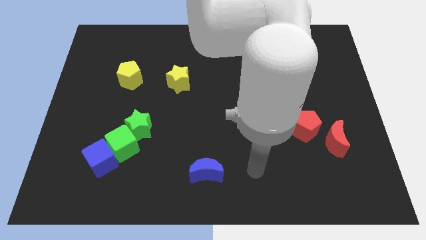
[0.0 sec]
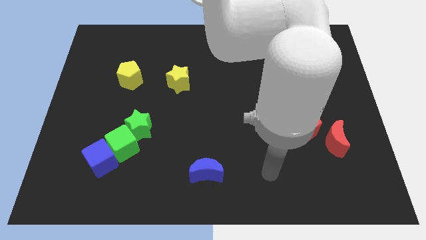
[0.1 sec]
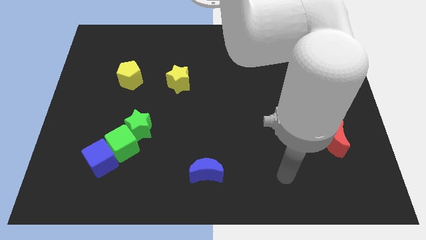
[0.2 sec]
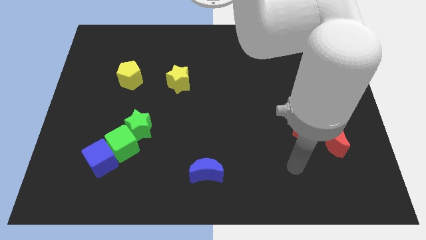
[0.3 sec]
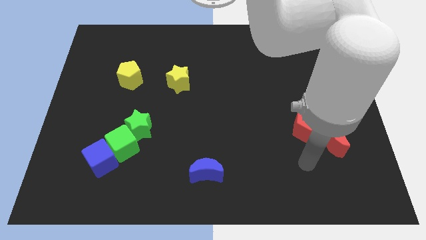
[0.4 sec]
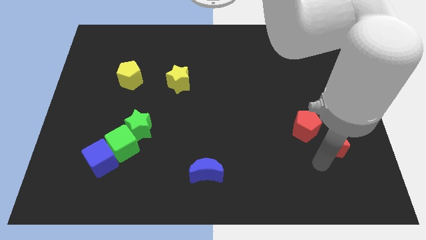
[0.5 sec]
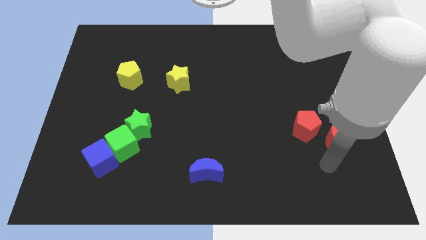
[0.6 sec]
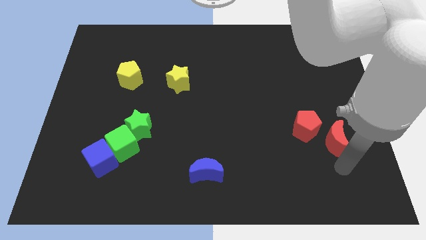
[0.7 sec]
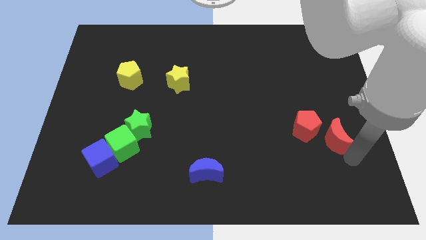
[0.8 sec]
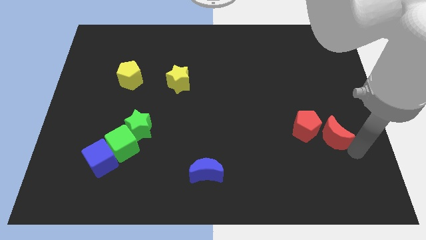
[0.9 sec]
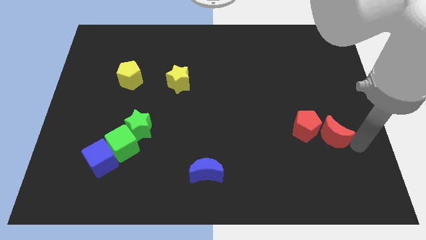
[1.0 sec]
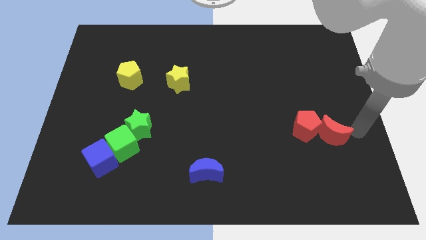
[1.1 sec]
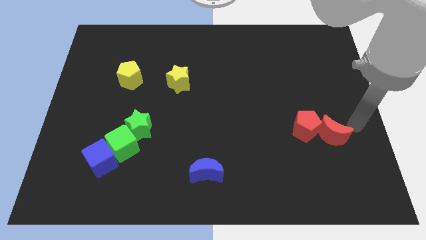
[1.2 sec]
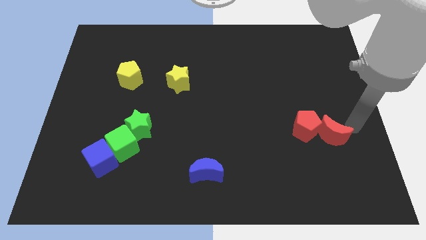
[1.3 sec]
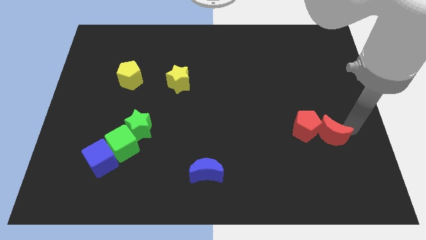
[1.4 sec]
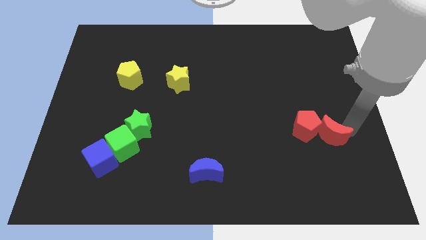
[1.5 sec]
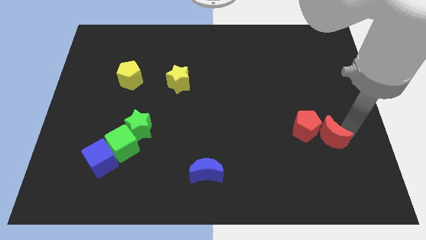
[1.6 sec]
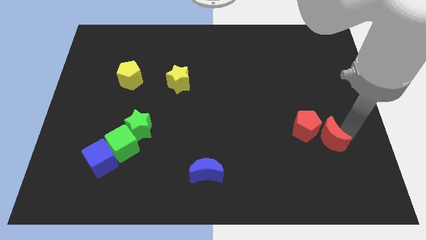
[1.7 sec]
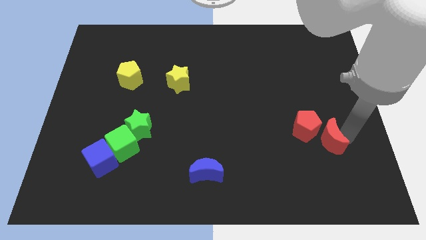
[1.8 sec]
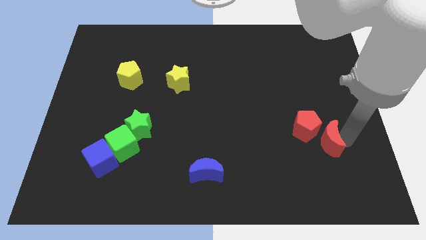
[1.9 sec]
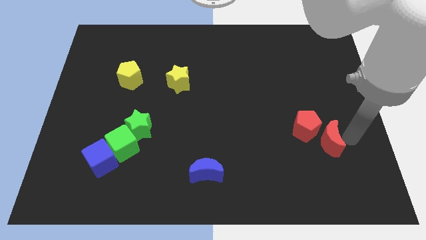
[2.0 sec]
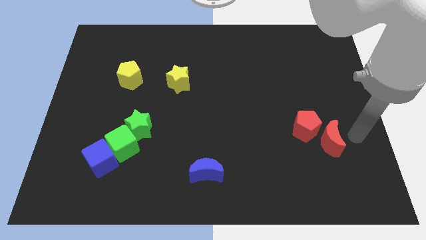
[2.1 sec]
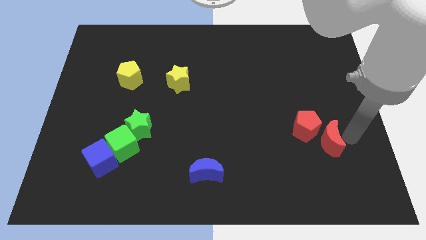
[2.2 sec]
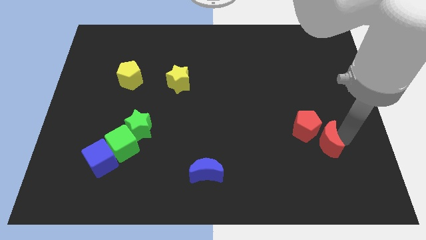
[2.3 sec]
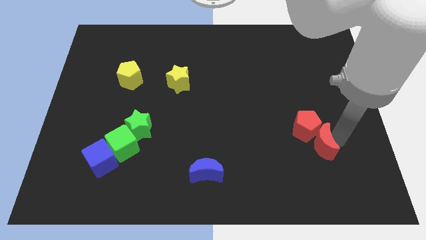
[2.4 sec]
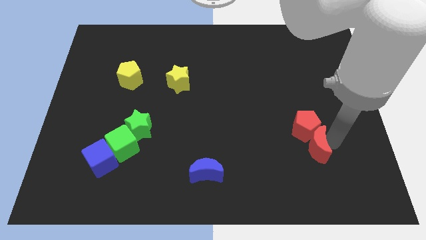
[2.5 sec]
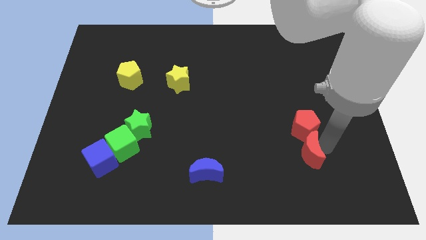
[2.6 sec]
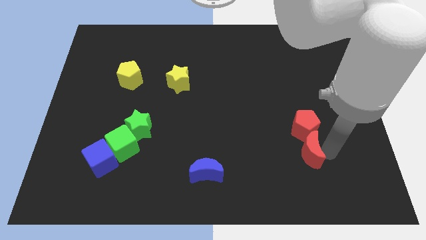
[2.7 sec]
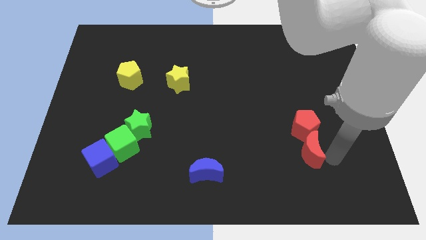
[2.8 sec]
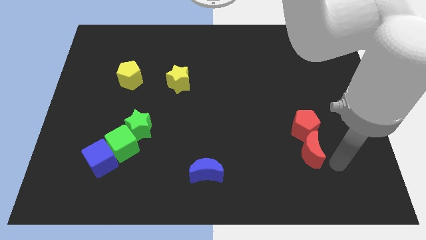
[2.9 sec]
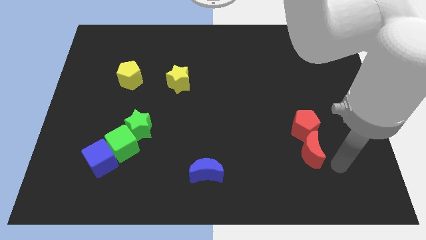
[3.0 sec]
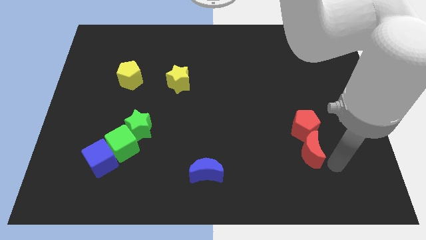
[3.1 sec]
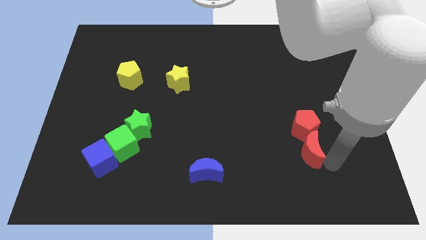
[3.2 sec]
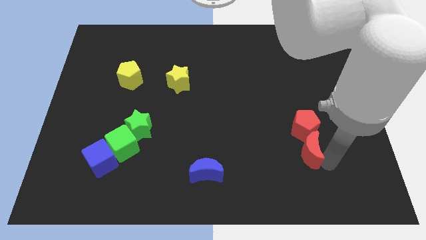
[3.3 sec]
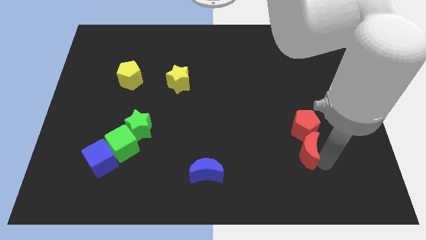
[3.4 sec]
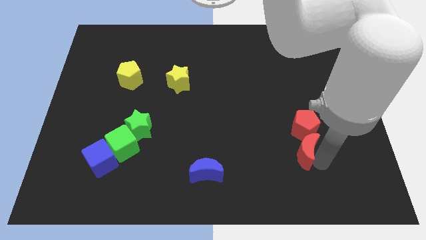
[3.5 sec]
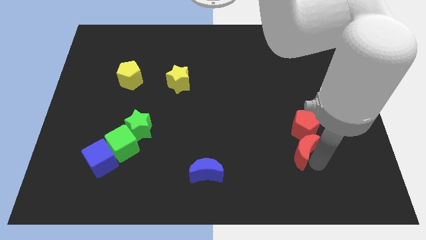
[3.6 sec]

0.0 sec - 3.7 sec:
push the red moon to the left somewhat

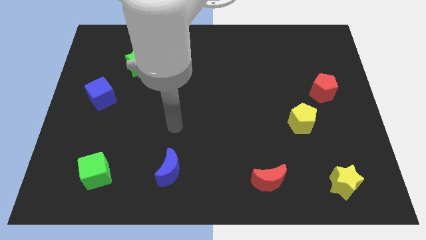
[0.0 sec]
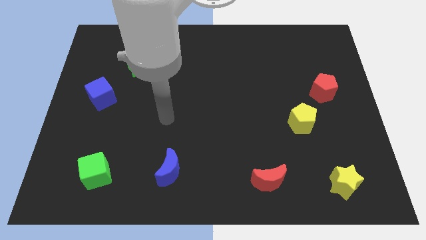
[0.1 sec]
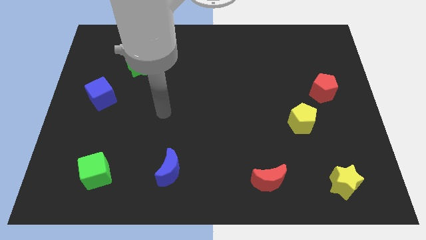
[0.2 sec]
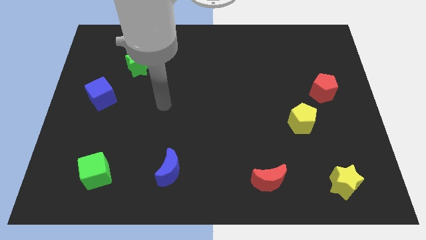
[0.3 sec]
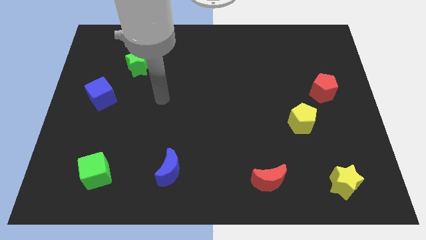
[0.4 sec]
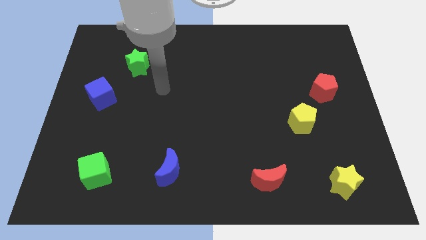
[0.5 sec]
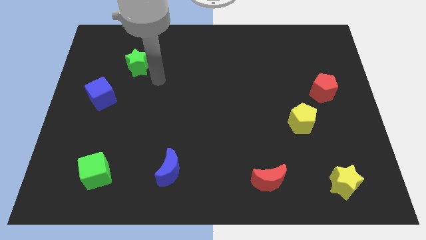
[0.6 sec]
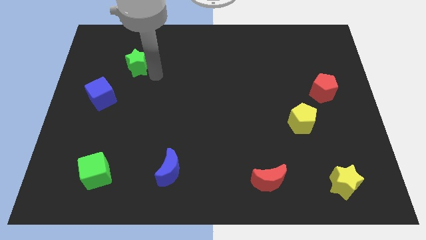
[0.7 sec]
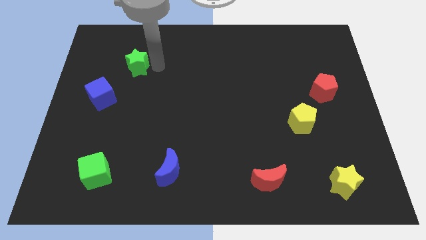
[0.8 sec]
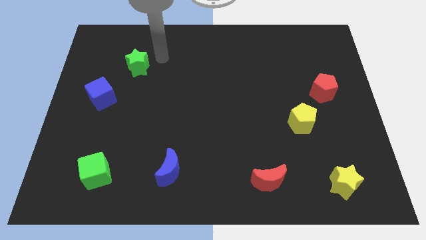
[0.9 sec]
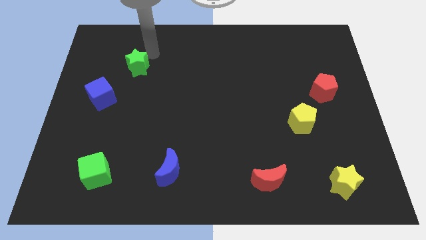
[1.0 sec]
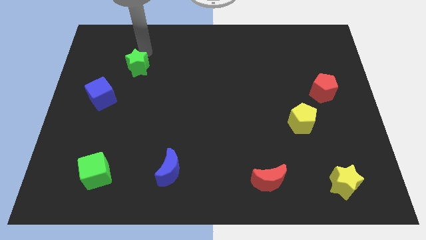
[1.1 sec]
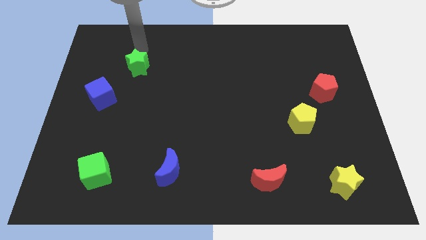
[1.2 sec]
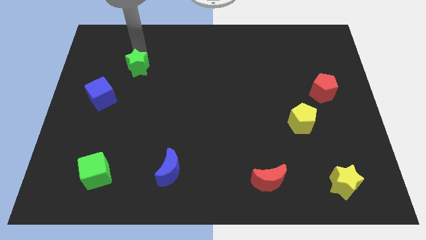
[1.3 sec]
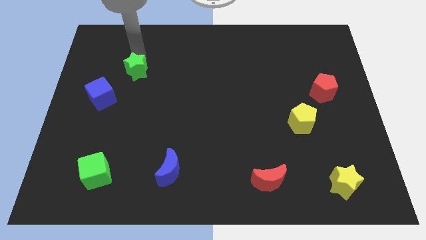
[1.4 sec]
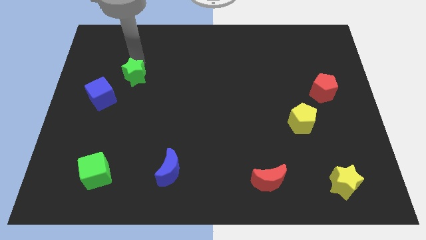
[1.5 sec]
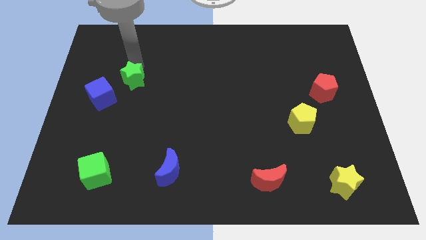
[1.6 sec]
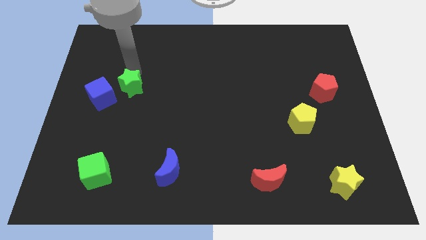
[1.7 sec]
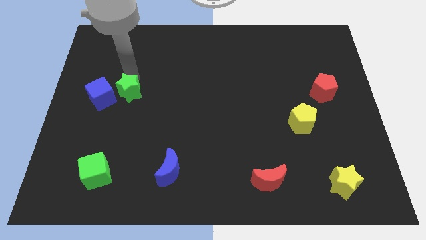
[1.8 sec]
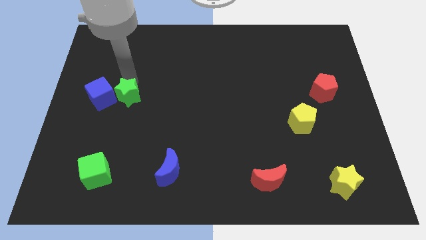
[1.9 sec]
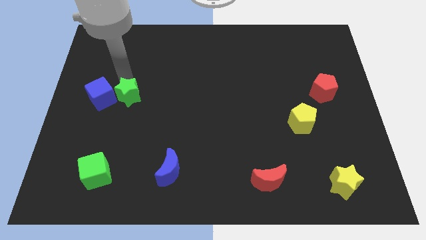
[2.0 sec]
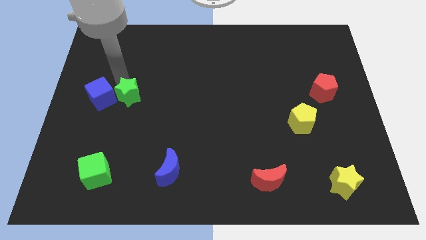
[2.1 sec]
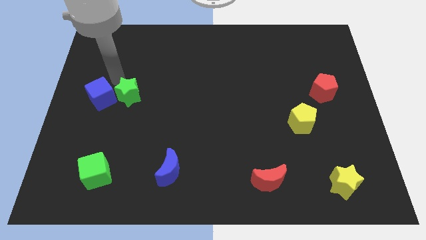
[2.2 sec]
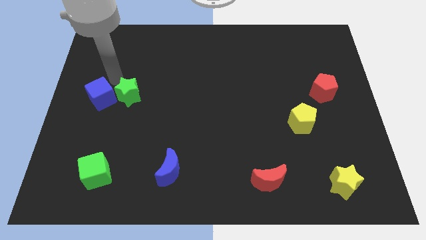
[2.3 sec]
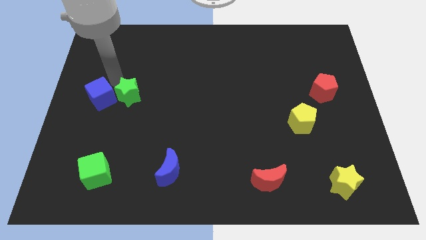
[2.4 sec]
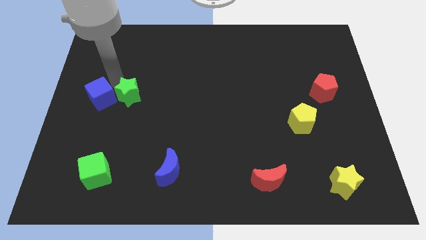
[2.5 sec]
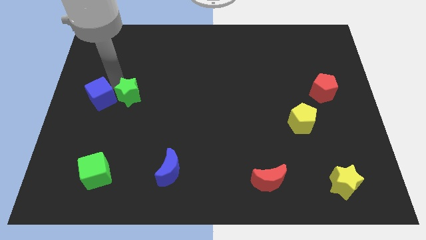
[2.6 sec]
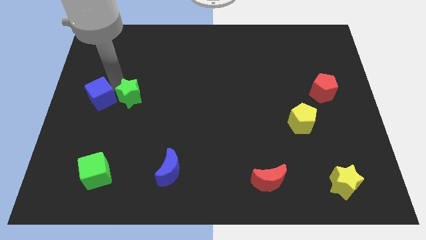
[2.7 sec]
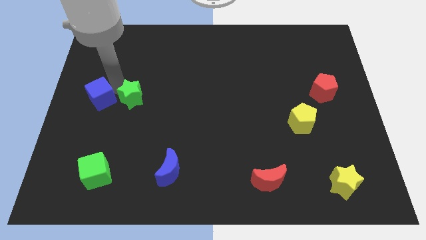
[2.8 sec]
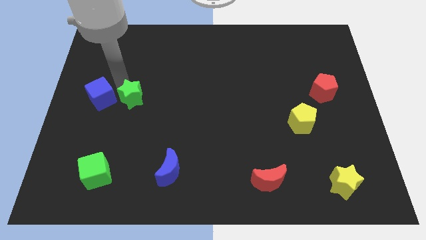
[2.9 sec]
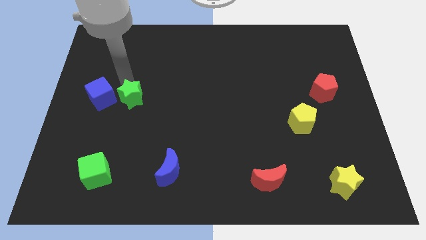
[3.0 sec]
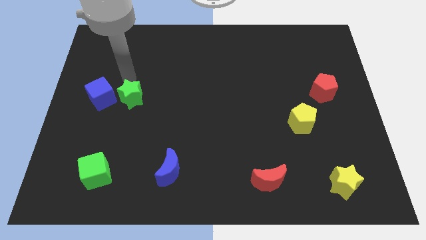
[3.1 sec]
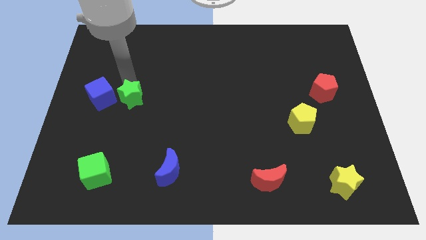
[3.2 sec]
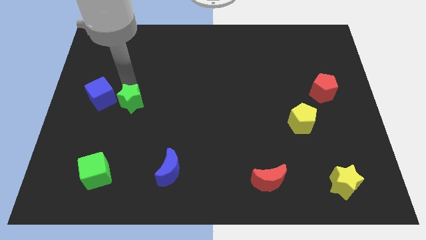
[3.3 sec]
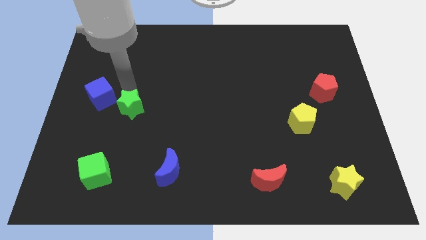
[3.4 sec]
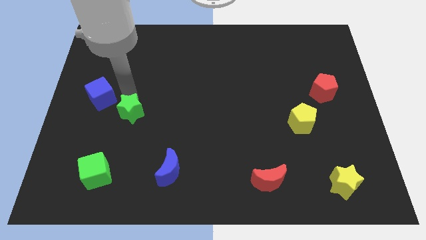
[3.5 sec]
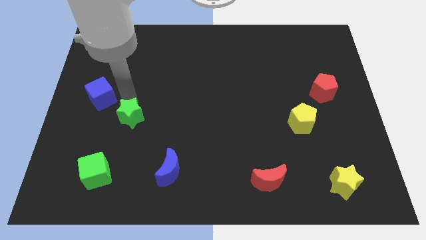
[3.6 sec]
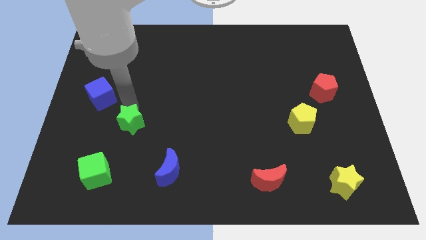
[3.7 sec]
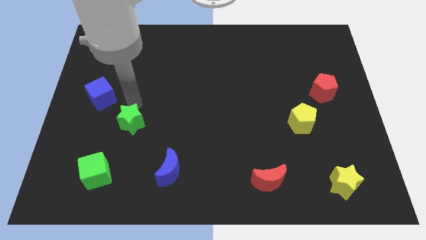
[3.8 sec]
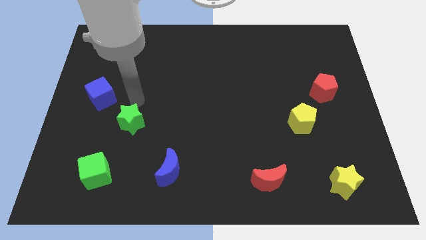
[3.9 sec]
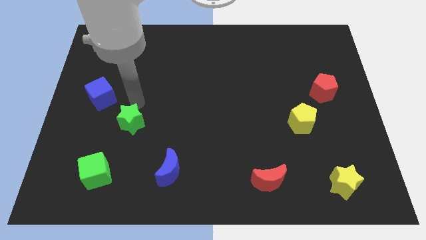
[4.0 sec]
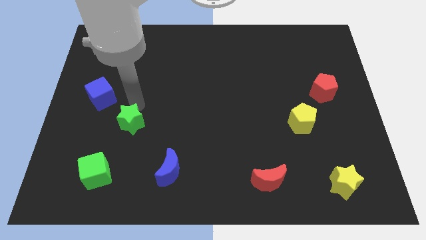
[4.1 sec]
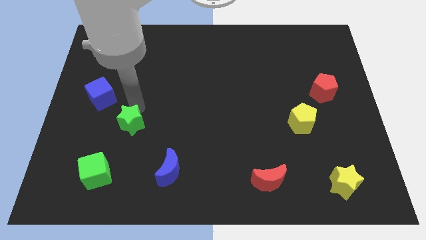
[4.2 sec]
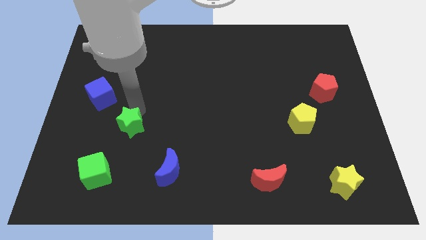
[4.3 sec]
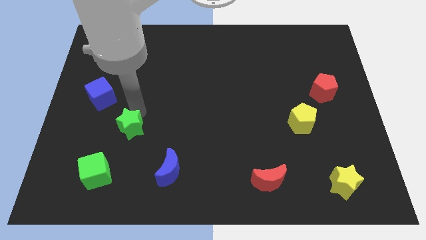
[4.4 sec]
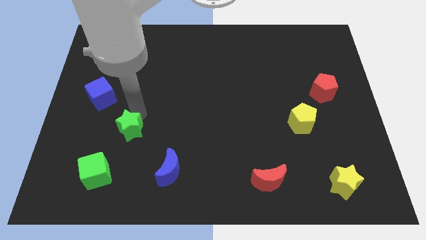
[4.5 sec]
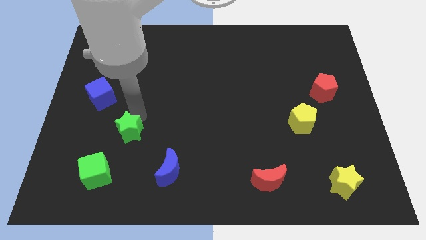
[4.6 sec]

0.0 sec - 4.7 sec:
push the green star downwards
